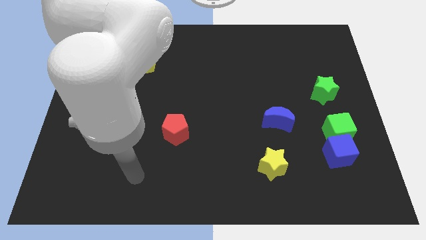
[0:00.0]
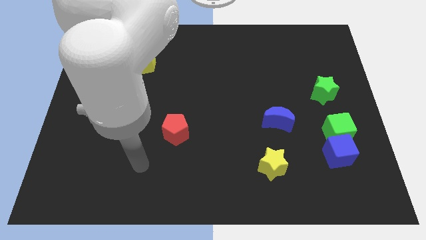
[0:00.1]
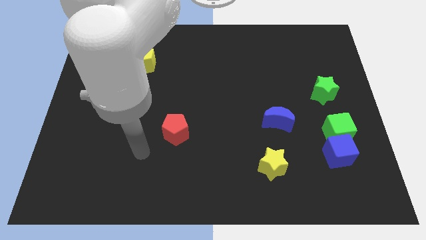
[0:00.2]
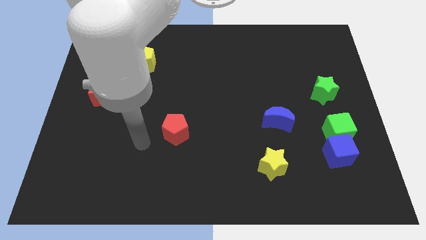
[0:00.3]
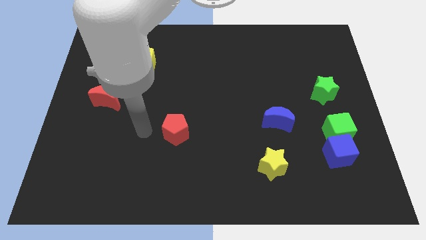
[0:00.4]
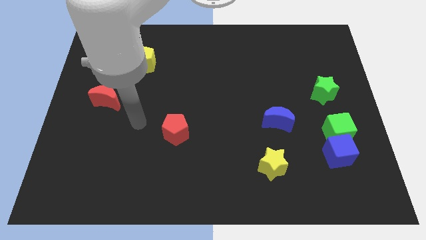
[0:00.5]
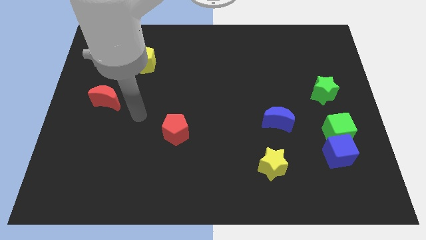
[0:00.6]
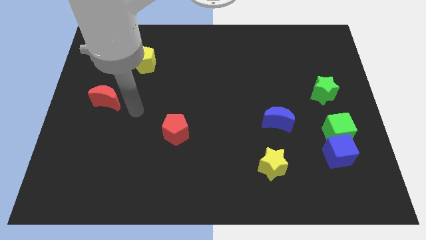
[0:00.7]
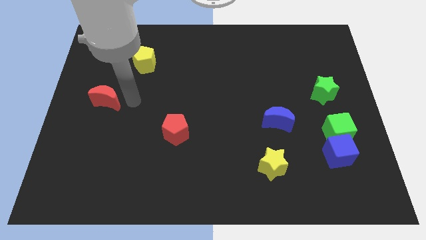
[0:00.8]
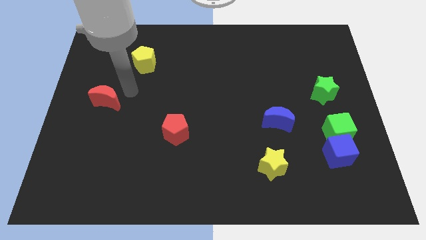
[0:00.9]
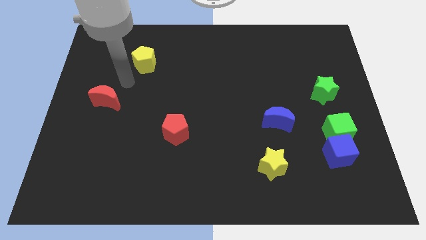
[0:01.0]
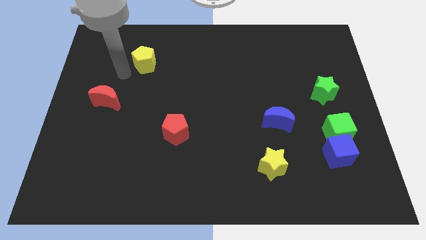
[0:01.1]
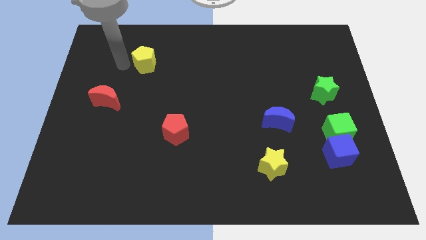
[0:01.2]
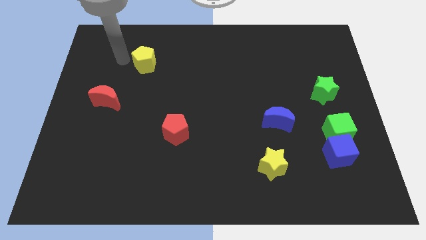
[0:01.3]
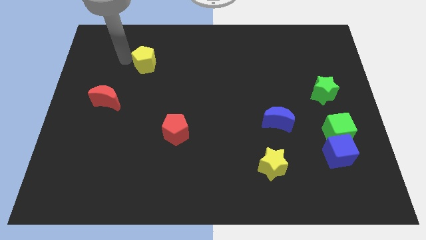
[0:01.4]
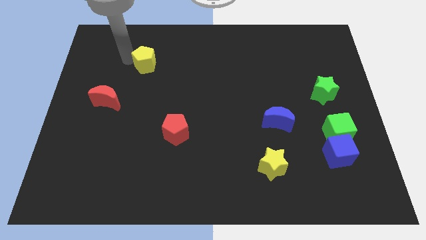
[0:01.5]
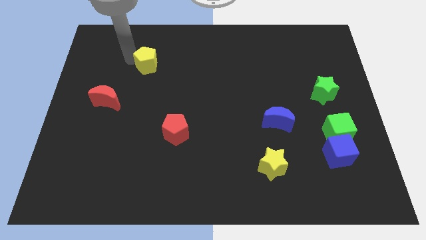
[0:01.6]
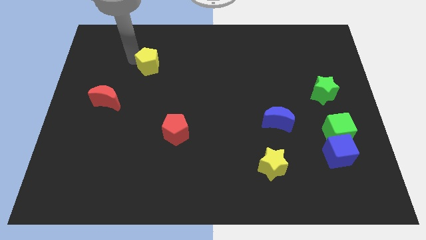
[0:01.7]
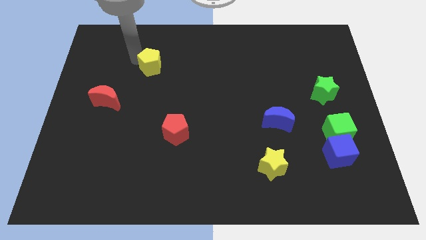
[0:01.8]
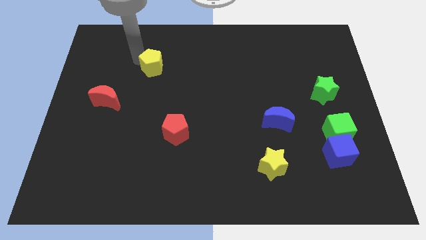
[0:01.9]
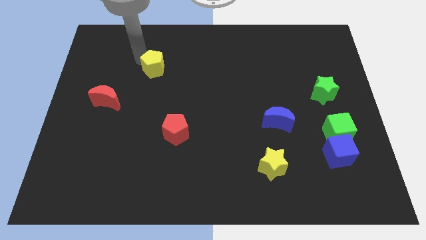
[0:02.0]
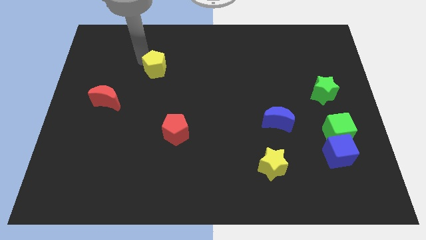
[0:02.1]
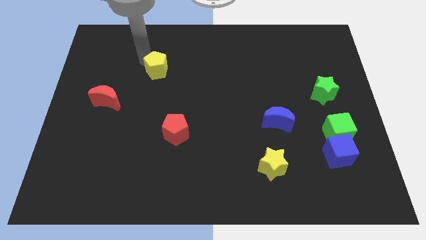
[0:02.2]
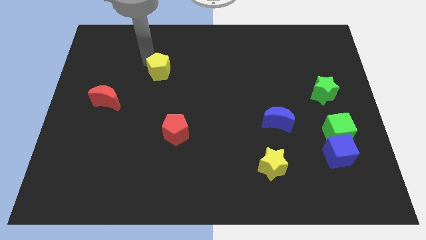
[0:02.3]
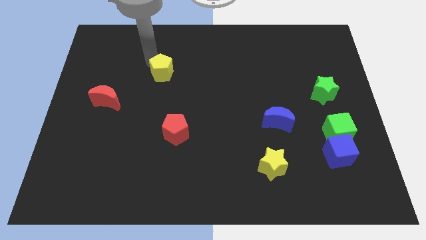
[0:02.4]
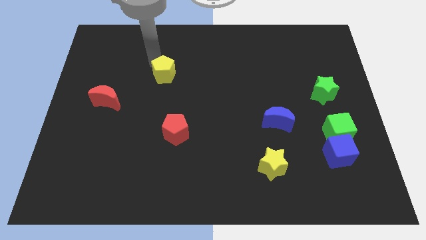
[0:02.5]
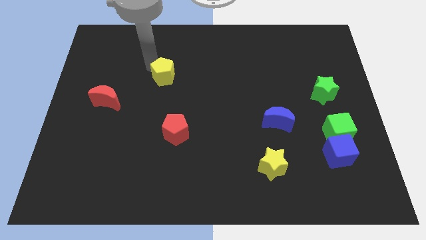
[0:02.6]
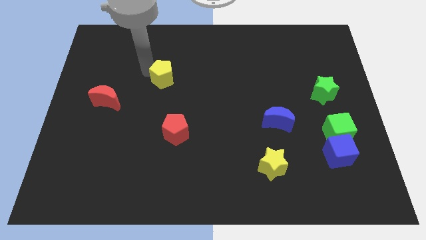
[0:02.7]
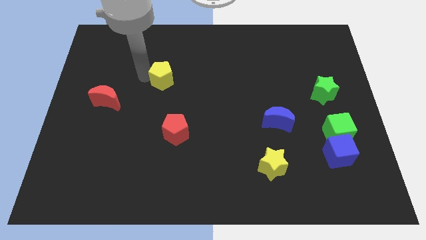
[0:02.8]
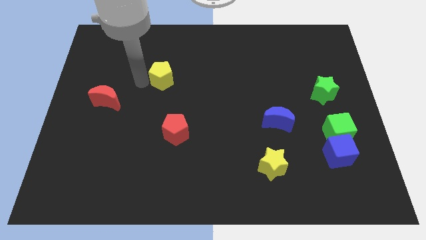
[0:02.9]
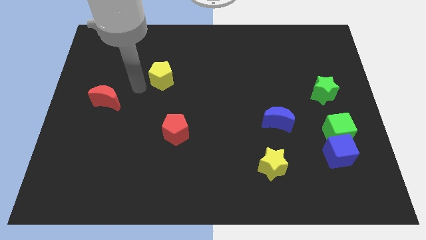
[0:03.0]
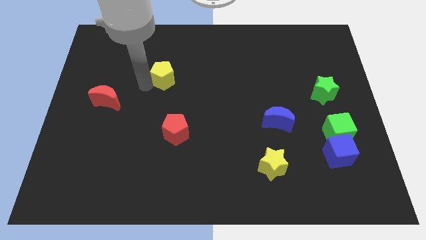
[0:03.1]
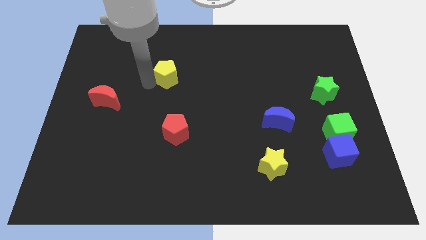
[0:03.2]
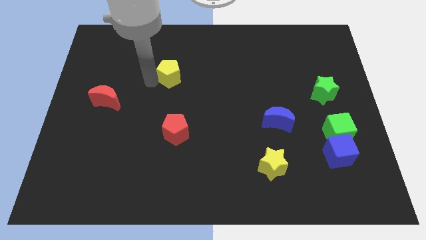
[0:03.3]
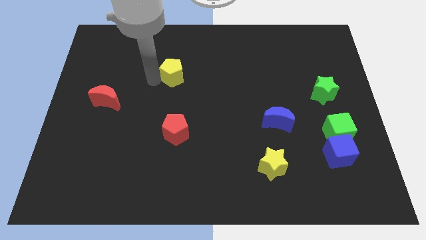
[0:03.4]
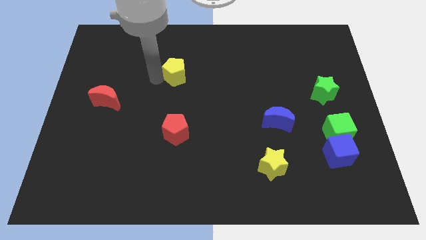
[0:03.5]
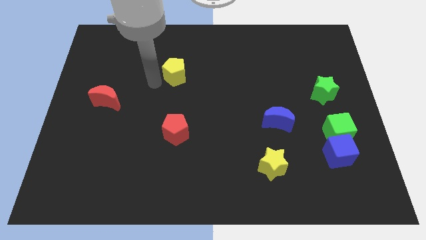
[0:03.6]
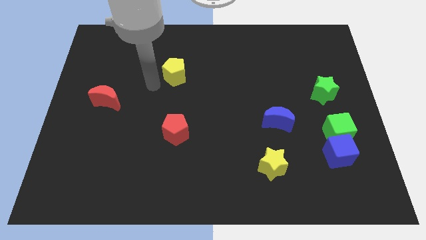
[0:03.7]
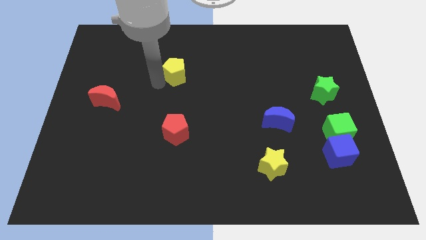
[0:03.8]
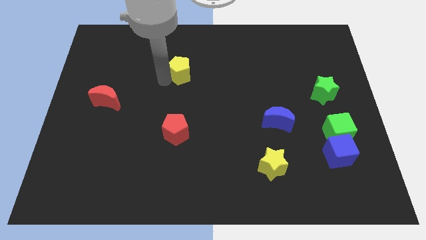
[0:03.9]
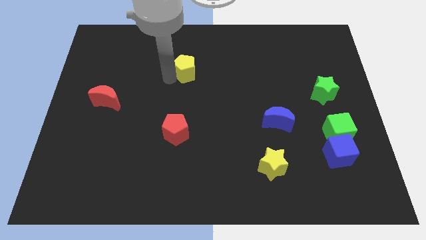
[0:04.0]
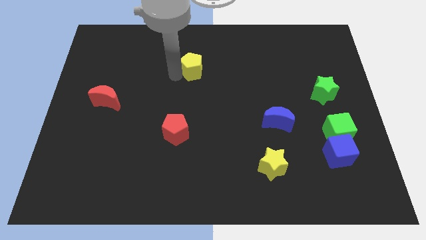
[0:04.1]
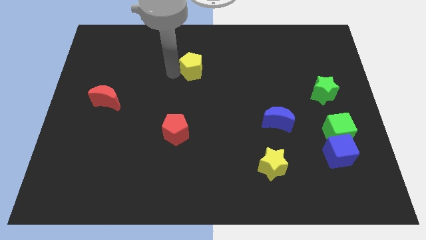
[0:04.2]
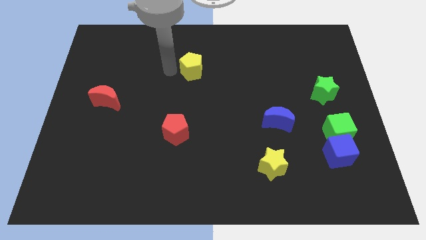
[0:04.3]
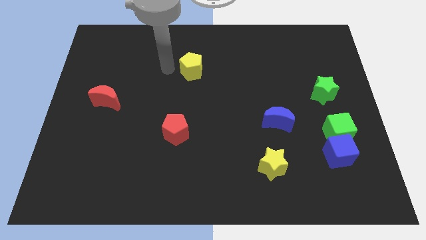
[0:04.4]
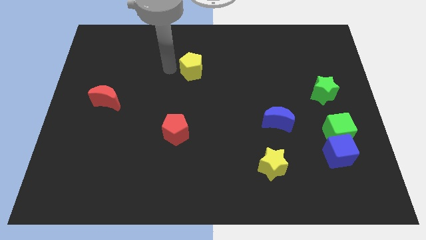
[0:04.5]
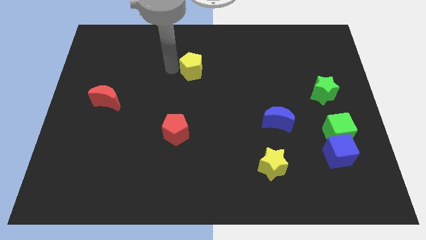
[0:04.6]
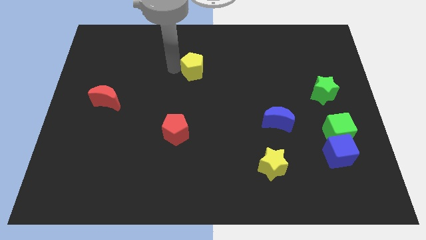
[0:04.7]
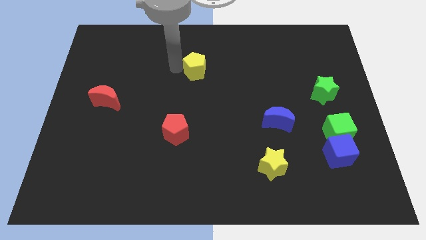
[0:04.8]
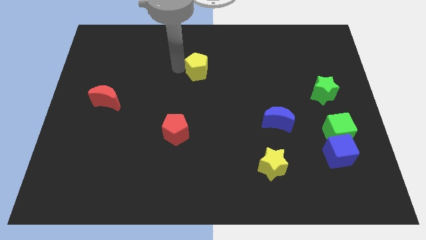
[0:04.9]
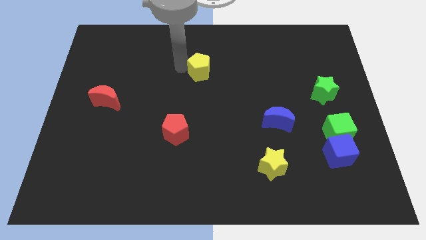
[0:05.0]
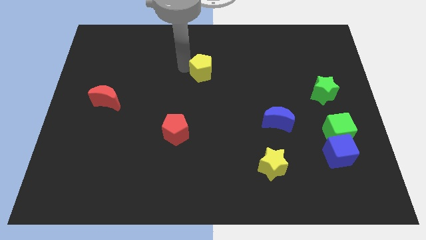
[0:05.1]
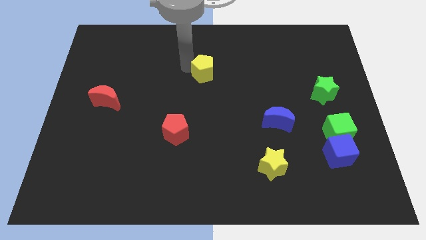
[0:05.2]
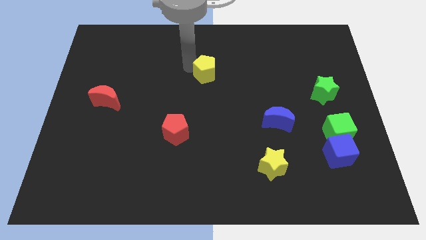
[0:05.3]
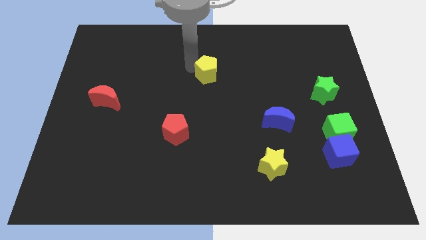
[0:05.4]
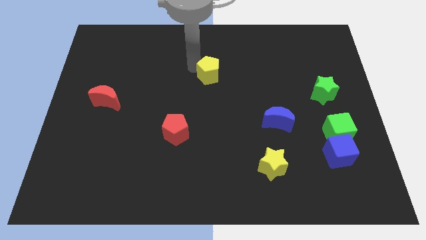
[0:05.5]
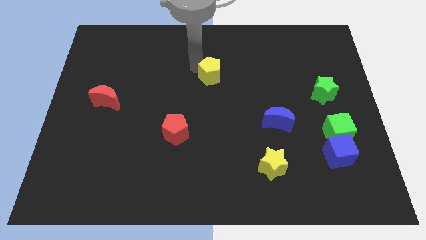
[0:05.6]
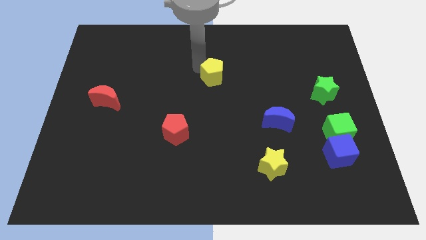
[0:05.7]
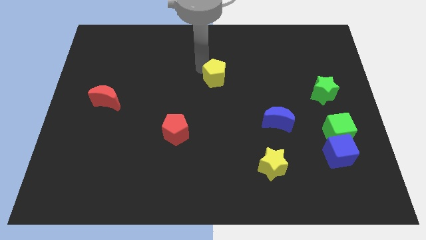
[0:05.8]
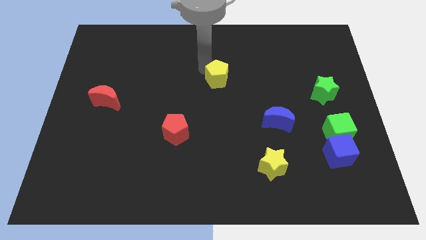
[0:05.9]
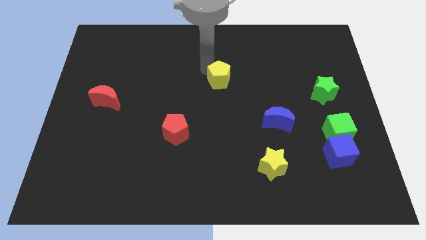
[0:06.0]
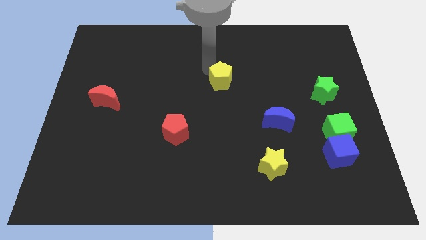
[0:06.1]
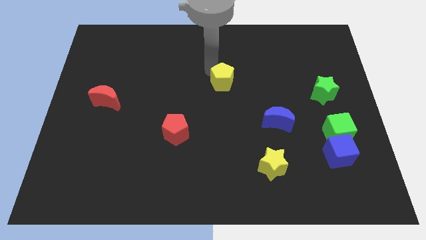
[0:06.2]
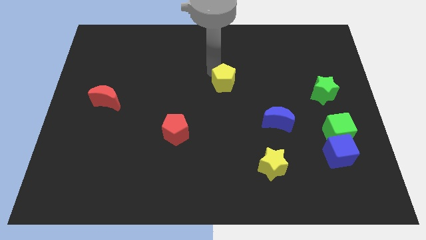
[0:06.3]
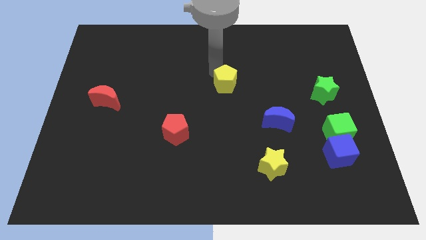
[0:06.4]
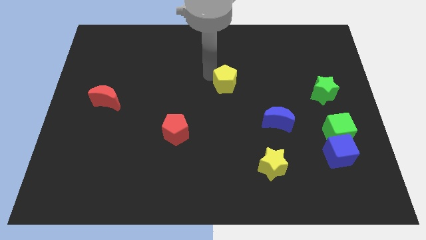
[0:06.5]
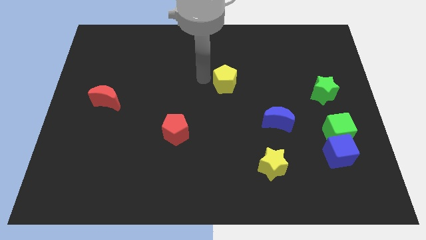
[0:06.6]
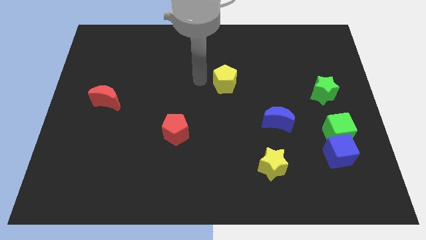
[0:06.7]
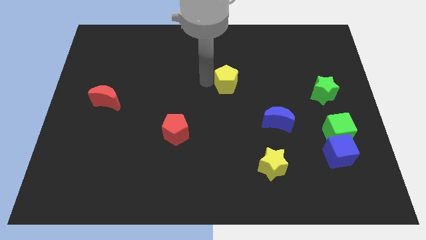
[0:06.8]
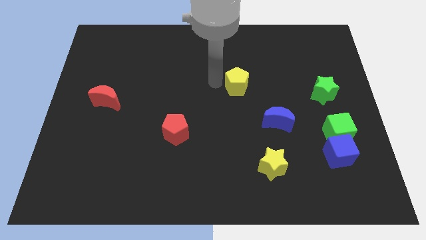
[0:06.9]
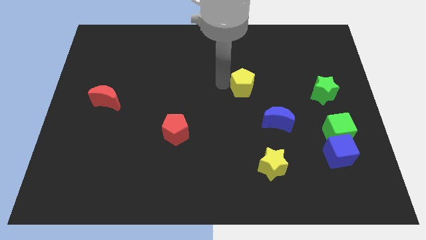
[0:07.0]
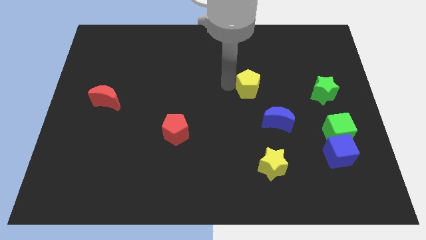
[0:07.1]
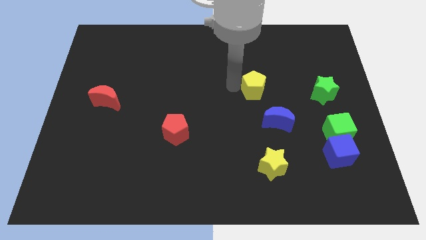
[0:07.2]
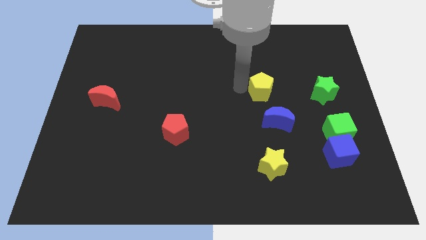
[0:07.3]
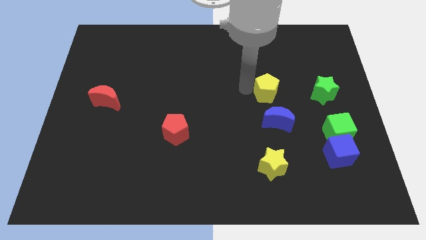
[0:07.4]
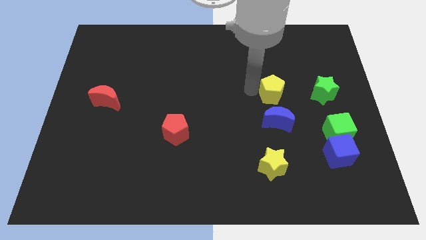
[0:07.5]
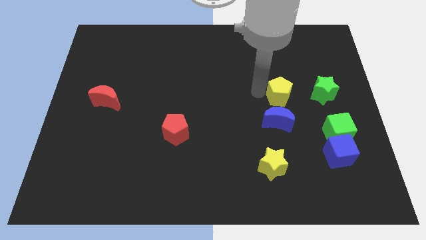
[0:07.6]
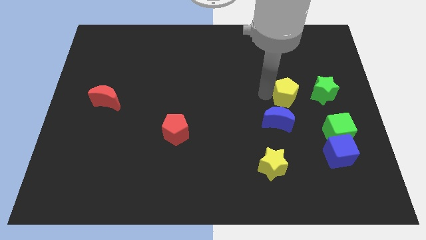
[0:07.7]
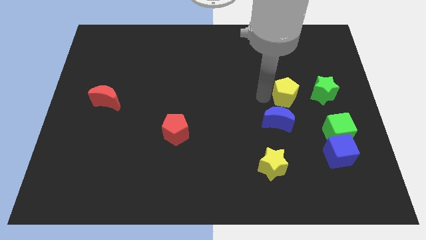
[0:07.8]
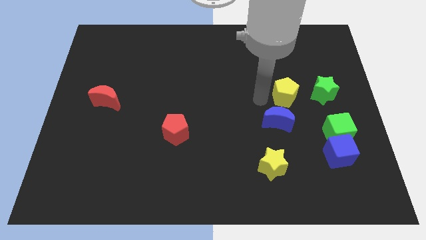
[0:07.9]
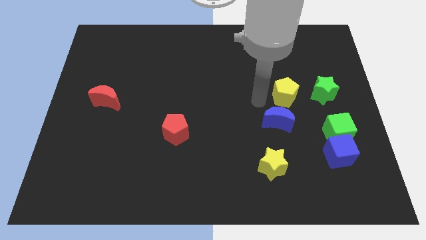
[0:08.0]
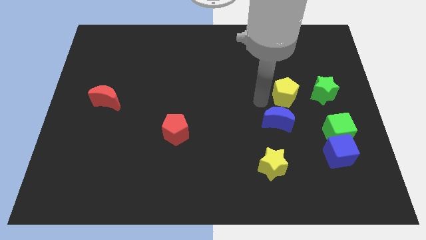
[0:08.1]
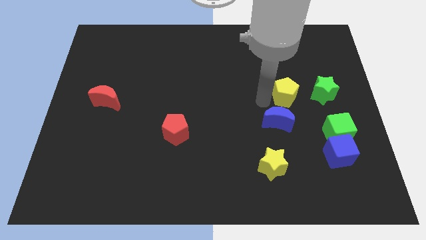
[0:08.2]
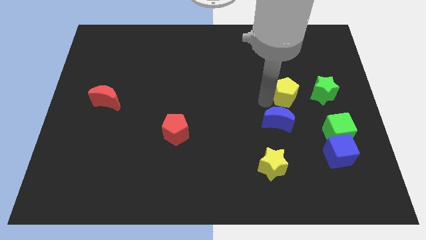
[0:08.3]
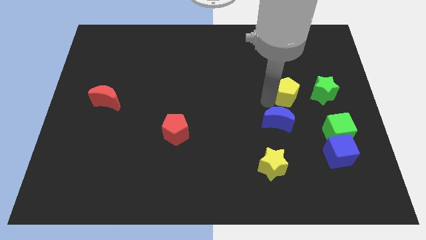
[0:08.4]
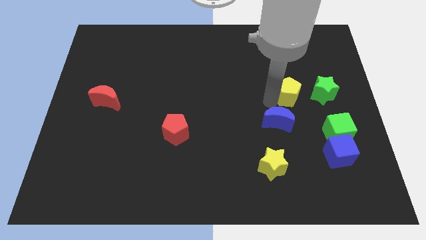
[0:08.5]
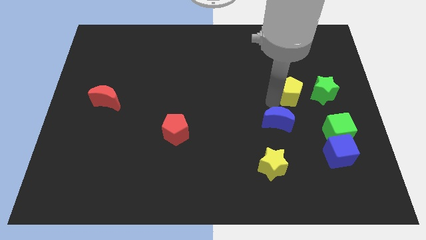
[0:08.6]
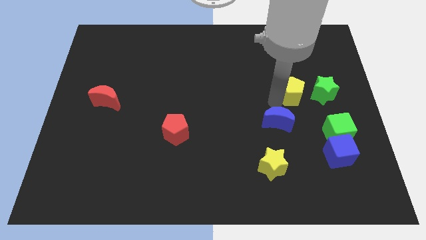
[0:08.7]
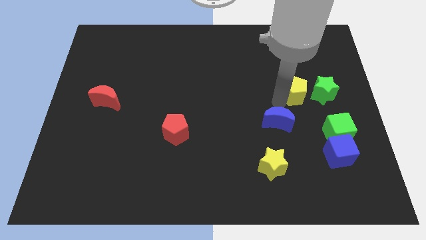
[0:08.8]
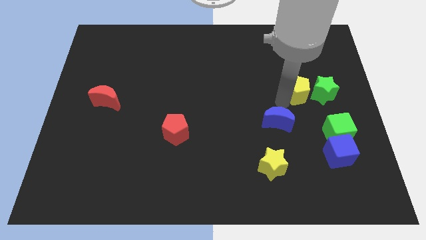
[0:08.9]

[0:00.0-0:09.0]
put the yellow pentagon towards the green star
